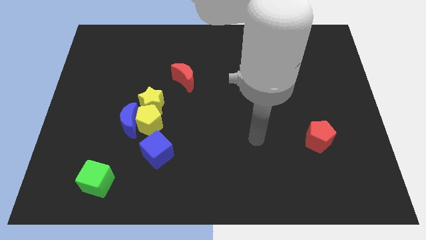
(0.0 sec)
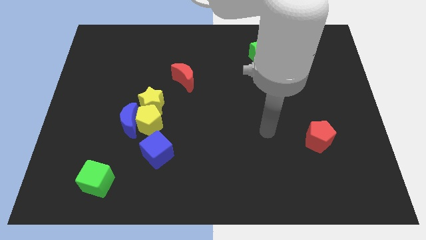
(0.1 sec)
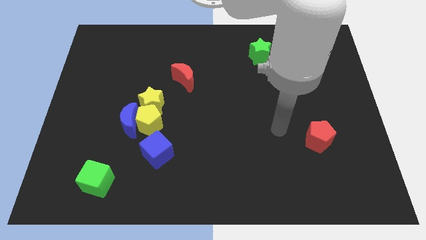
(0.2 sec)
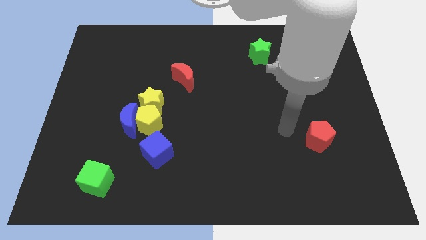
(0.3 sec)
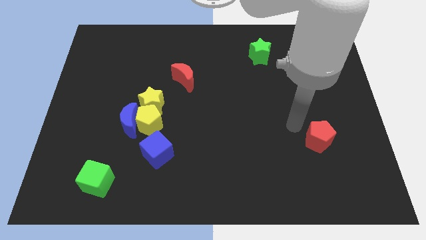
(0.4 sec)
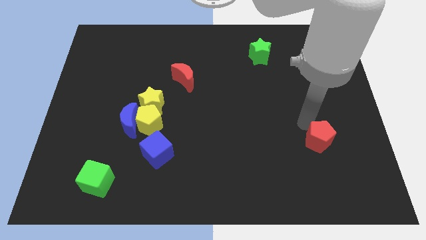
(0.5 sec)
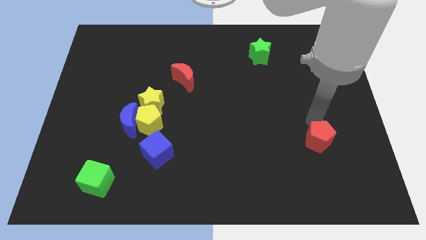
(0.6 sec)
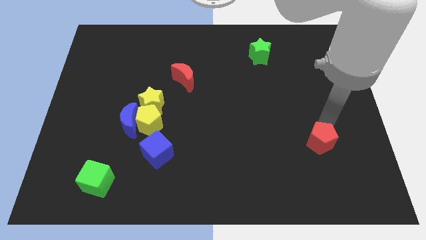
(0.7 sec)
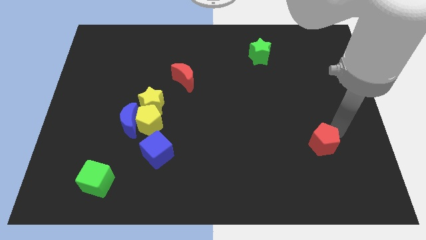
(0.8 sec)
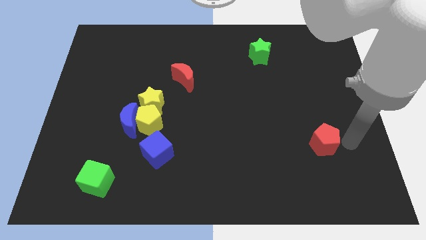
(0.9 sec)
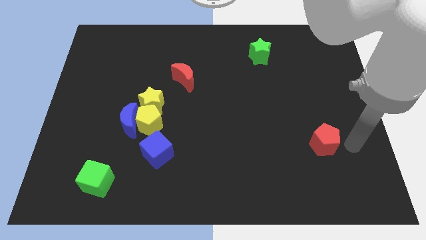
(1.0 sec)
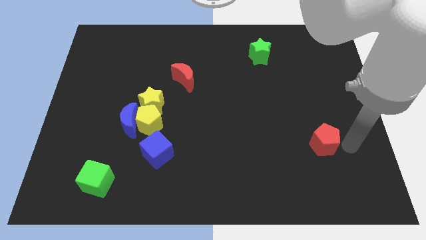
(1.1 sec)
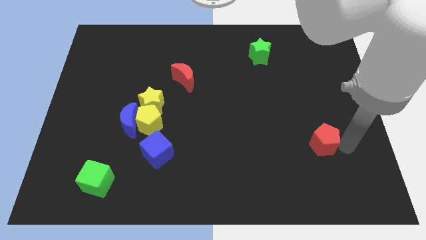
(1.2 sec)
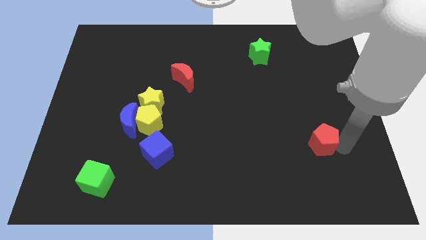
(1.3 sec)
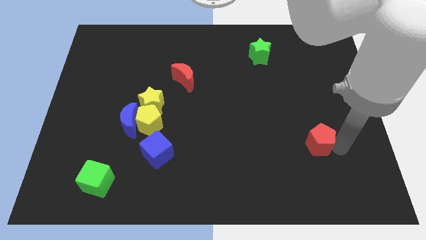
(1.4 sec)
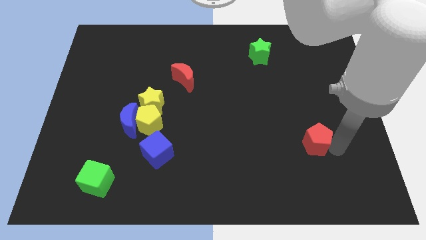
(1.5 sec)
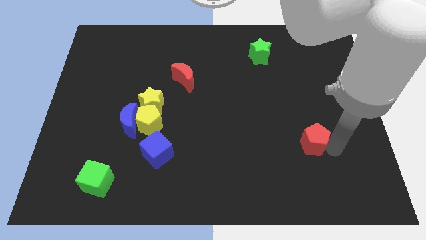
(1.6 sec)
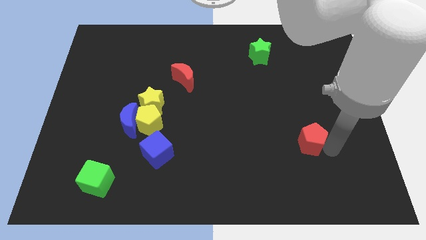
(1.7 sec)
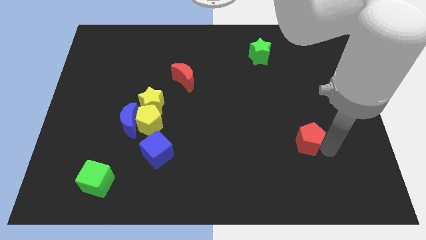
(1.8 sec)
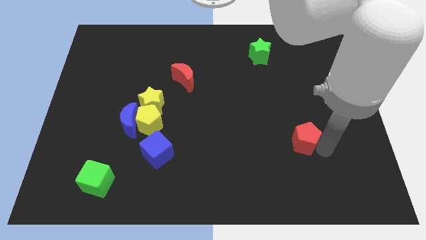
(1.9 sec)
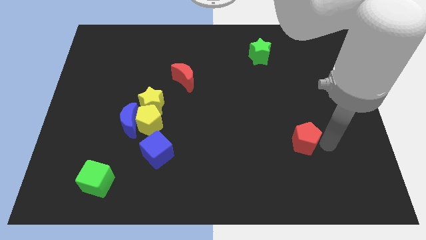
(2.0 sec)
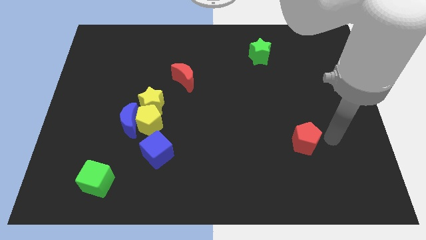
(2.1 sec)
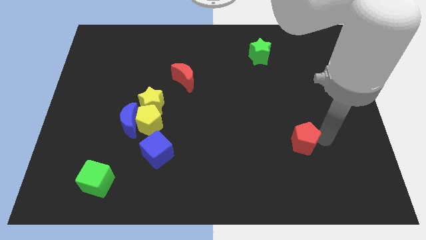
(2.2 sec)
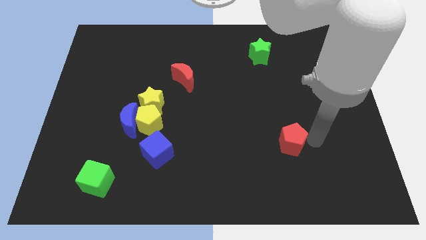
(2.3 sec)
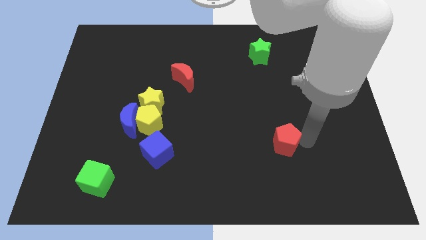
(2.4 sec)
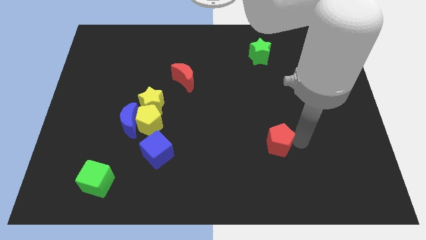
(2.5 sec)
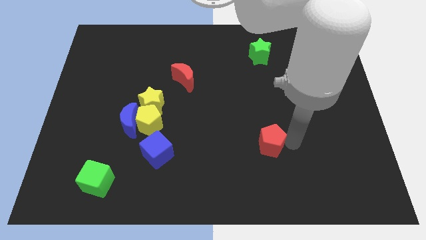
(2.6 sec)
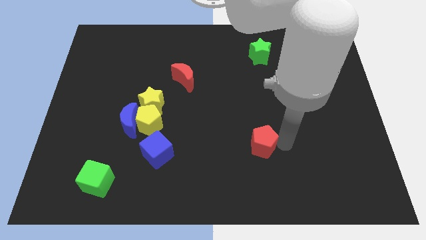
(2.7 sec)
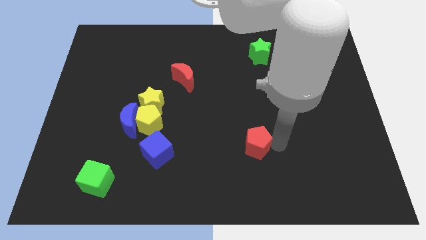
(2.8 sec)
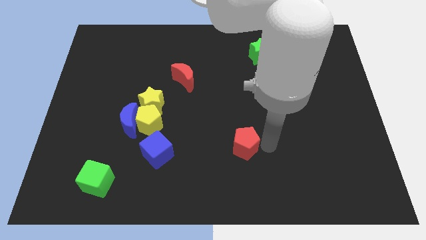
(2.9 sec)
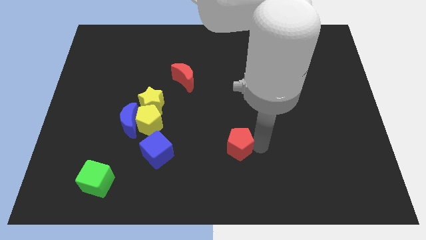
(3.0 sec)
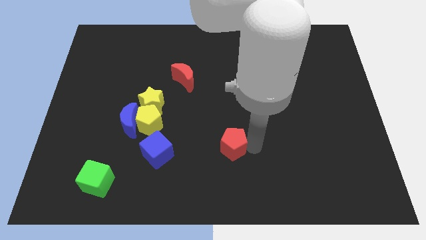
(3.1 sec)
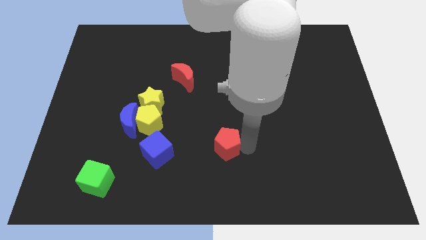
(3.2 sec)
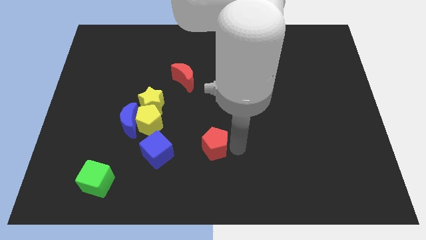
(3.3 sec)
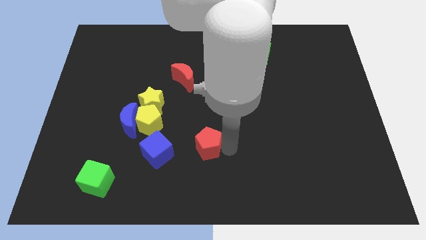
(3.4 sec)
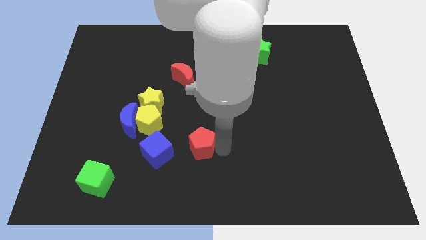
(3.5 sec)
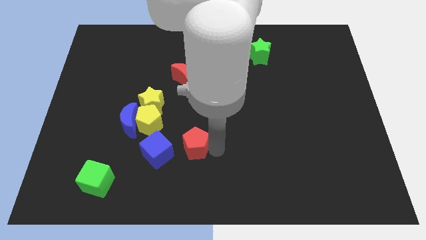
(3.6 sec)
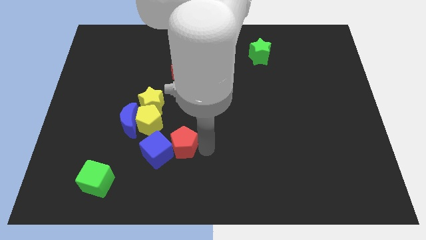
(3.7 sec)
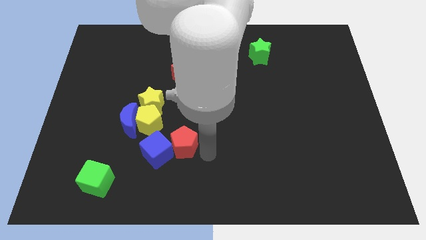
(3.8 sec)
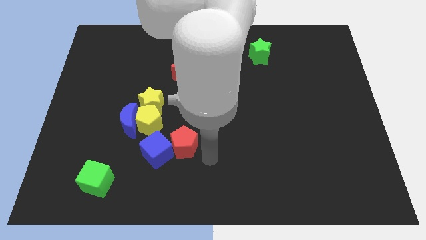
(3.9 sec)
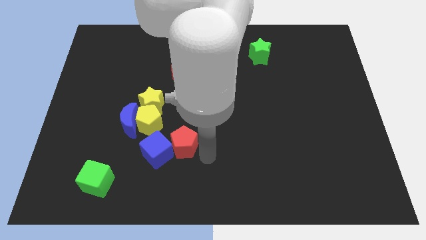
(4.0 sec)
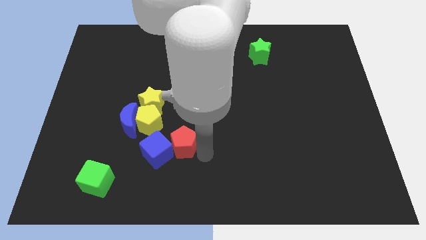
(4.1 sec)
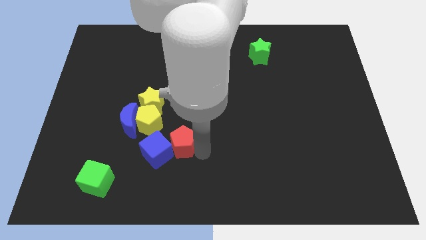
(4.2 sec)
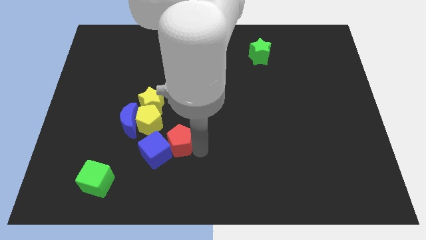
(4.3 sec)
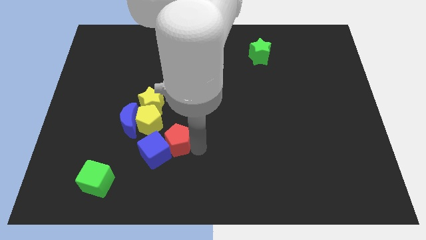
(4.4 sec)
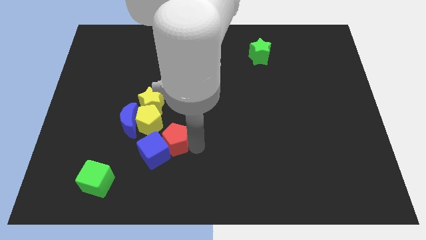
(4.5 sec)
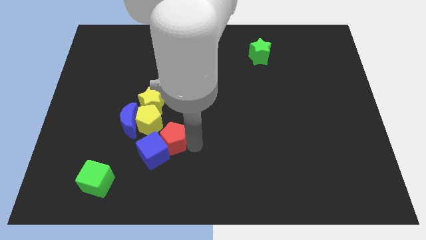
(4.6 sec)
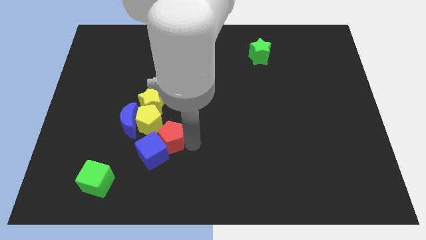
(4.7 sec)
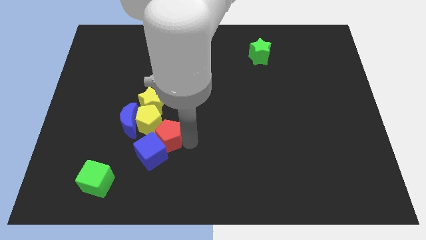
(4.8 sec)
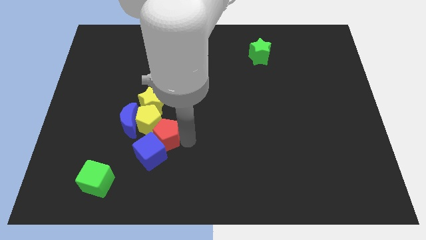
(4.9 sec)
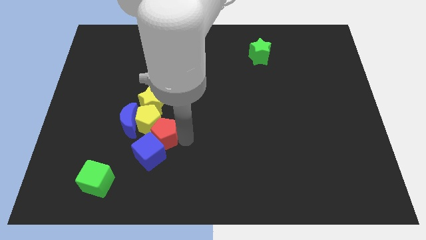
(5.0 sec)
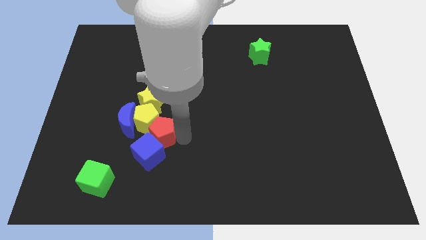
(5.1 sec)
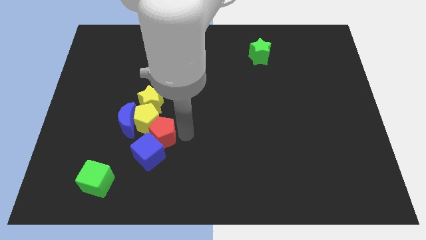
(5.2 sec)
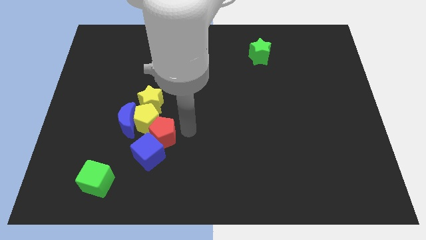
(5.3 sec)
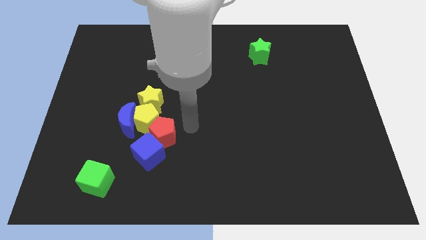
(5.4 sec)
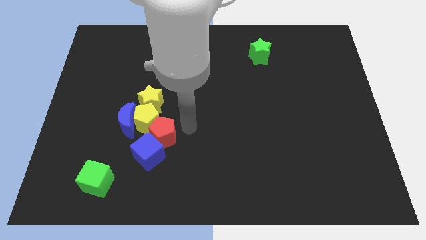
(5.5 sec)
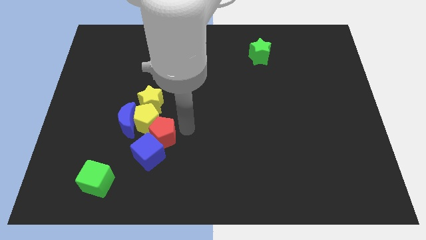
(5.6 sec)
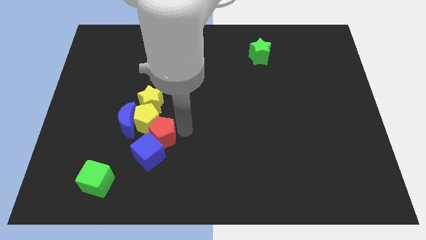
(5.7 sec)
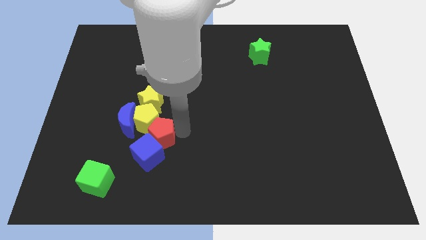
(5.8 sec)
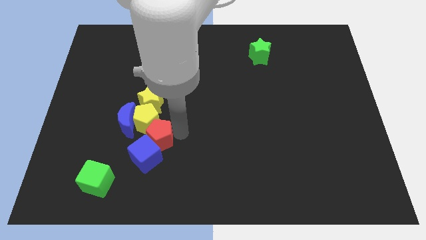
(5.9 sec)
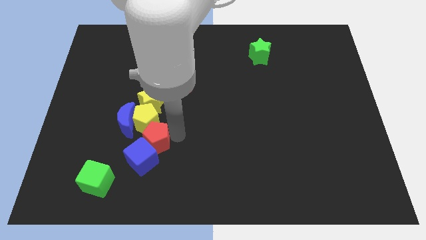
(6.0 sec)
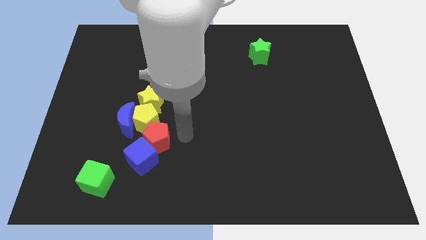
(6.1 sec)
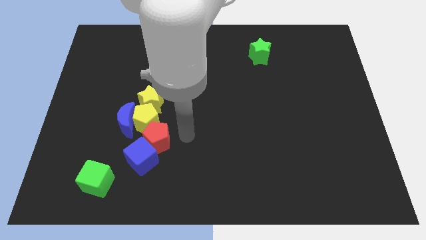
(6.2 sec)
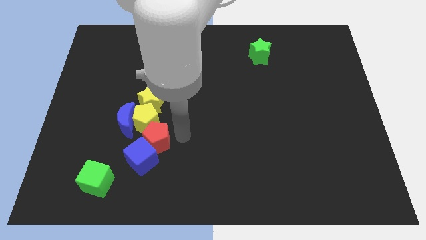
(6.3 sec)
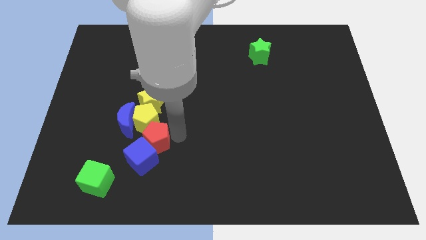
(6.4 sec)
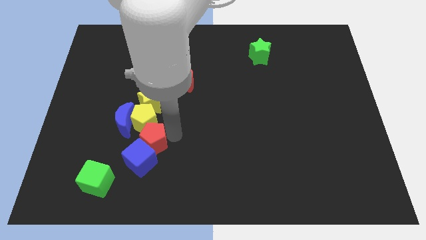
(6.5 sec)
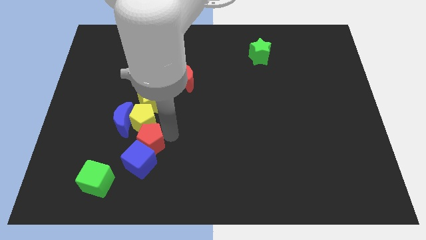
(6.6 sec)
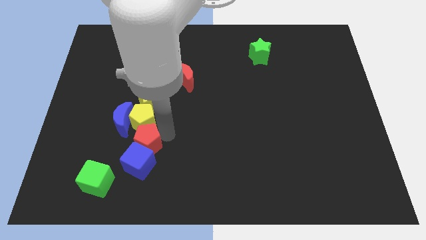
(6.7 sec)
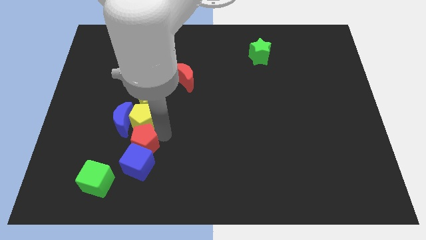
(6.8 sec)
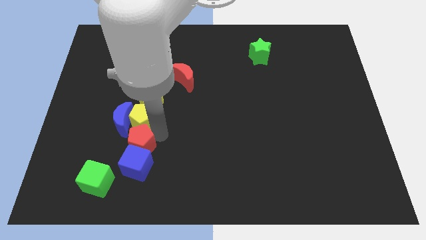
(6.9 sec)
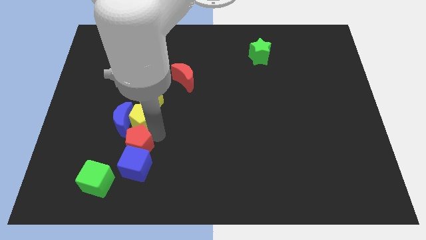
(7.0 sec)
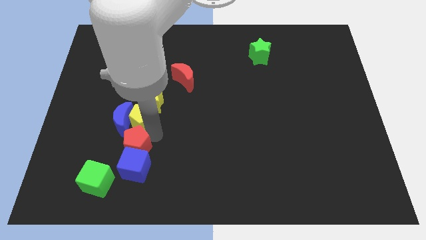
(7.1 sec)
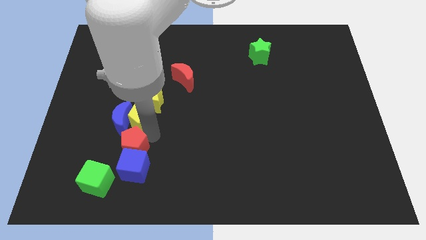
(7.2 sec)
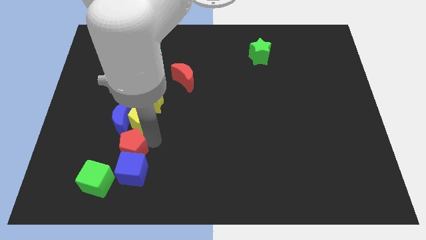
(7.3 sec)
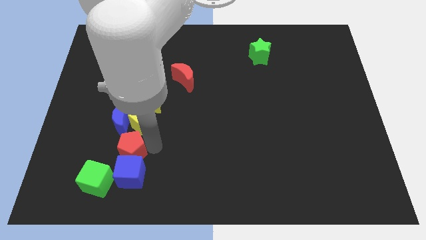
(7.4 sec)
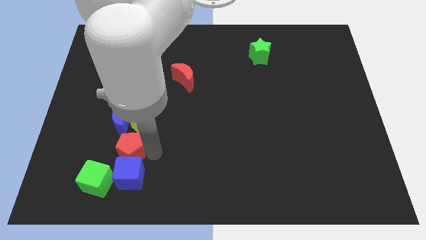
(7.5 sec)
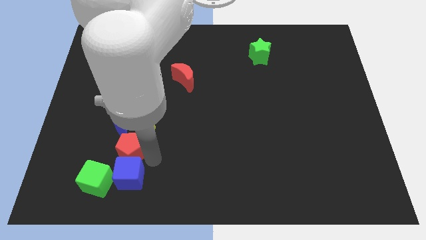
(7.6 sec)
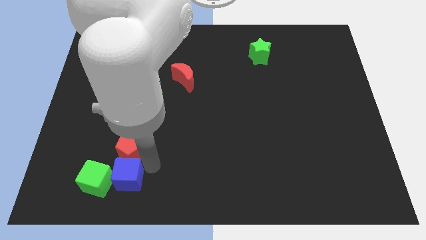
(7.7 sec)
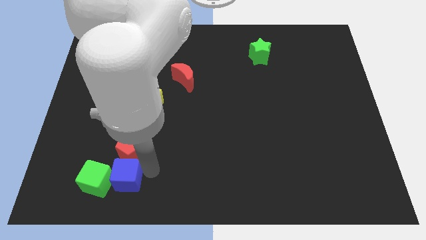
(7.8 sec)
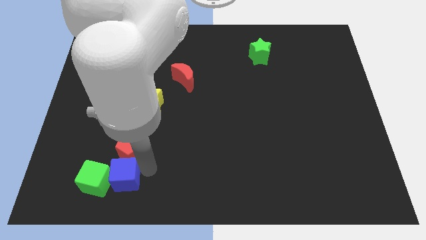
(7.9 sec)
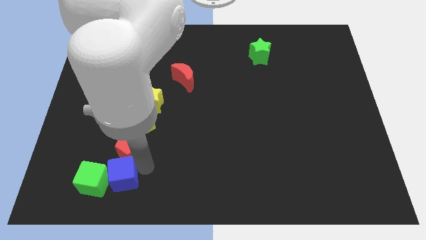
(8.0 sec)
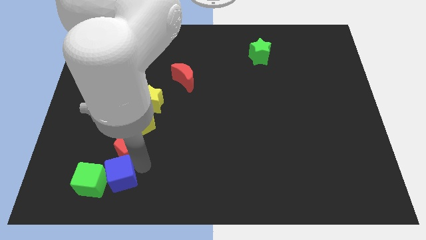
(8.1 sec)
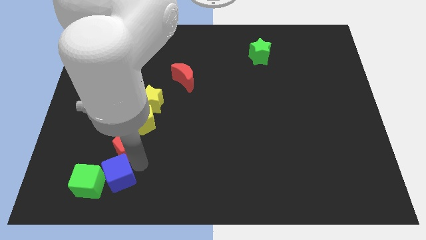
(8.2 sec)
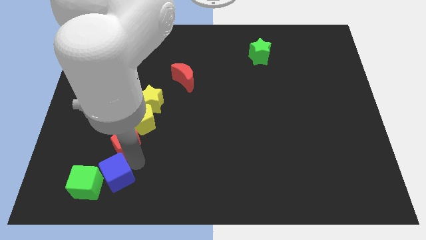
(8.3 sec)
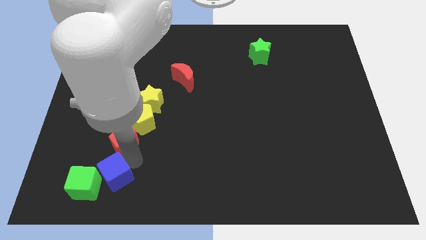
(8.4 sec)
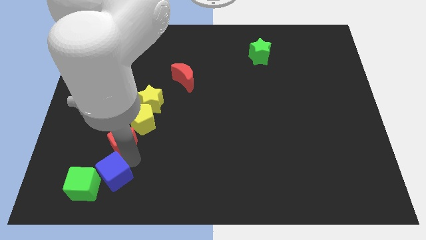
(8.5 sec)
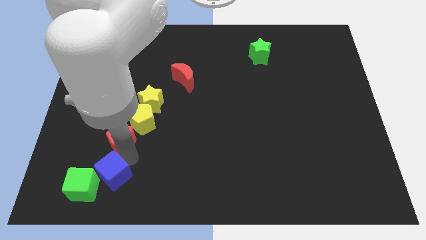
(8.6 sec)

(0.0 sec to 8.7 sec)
put the red pentagon diagonally down and to the left of the yellow star
